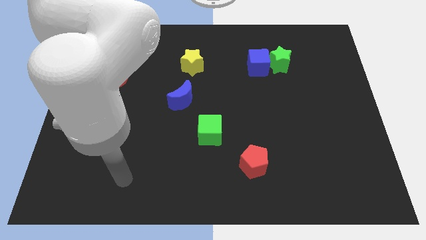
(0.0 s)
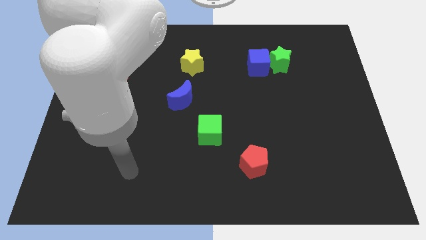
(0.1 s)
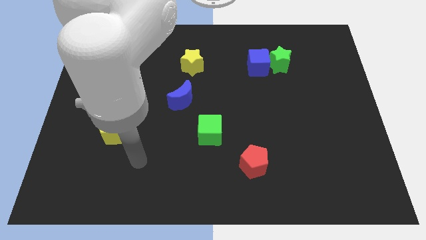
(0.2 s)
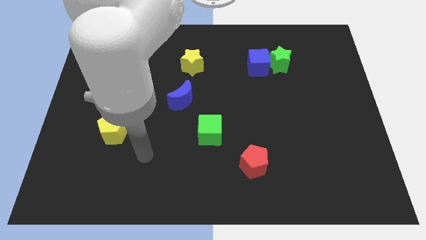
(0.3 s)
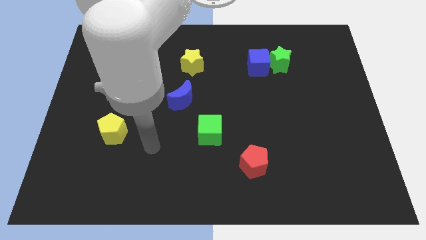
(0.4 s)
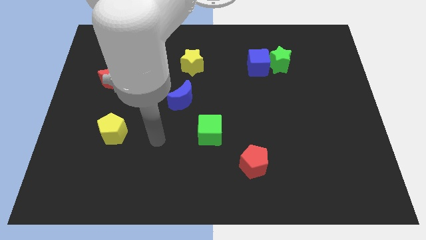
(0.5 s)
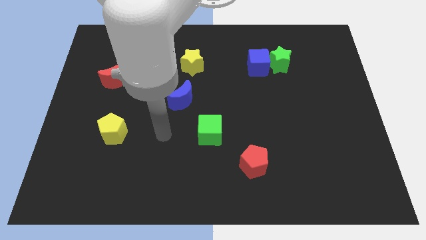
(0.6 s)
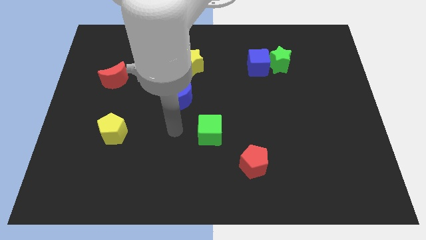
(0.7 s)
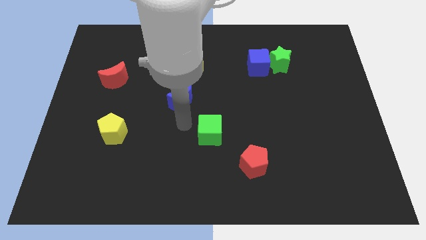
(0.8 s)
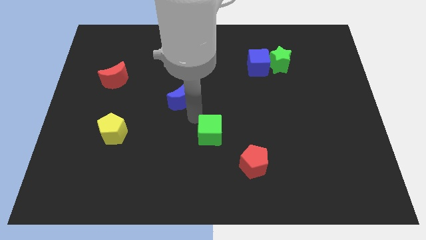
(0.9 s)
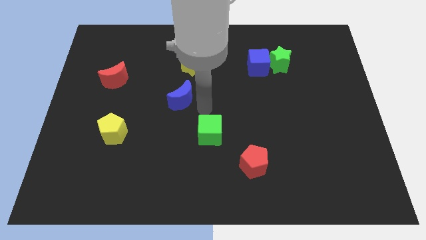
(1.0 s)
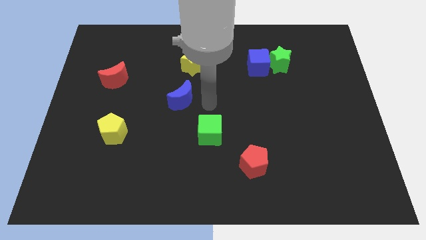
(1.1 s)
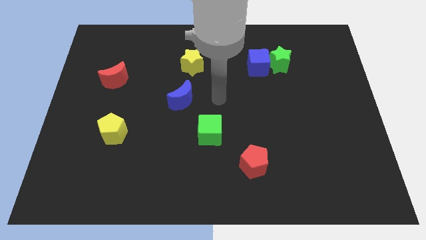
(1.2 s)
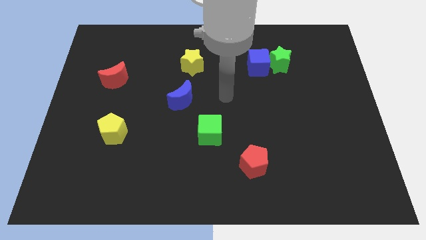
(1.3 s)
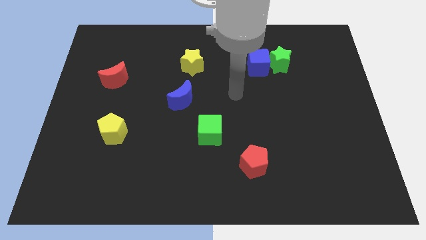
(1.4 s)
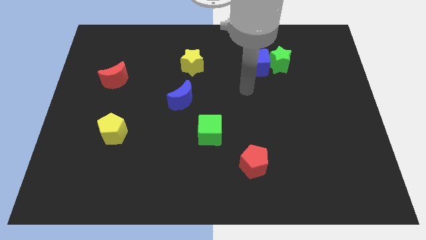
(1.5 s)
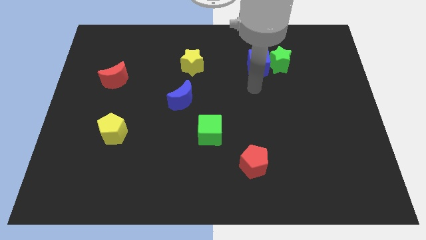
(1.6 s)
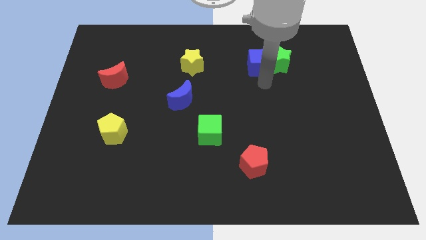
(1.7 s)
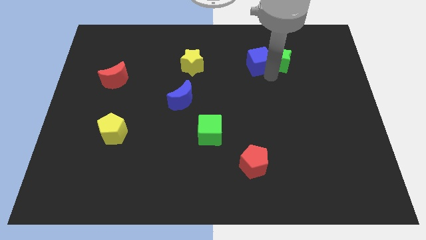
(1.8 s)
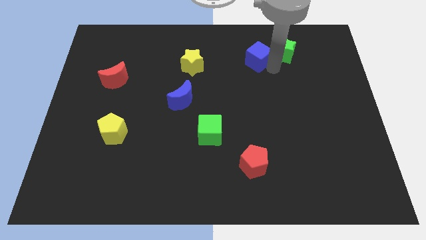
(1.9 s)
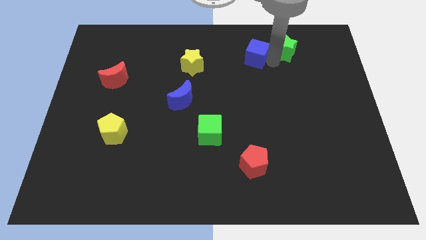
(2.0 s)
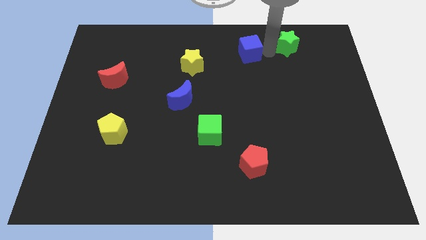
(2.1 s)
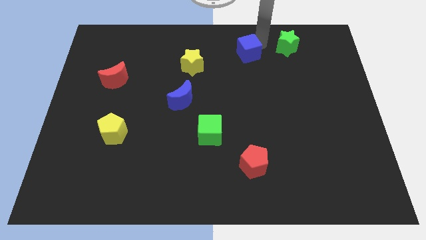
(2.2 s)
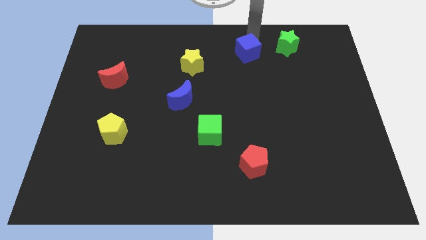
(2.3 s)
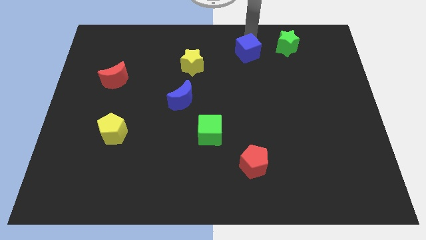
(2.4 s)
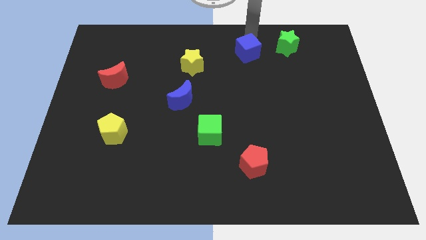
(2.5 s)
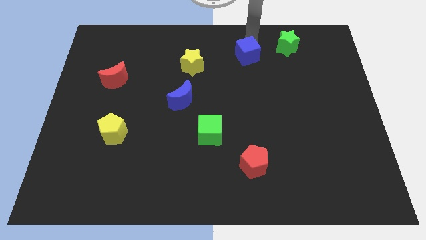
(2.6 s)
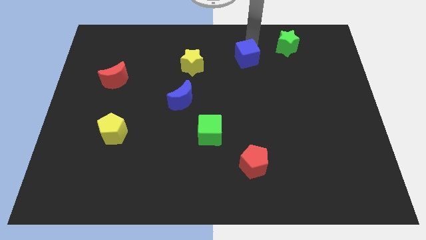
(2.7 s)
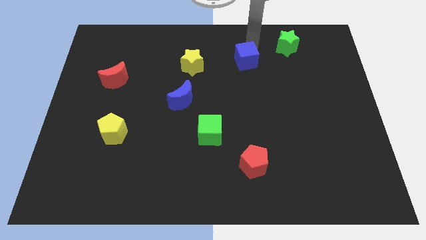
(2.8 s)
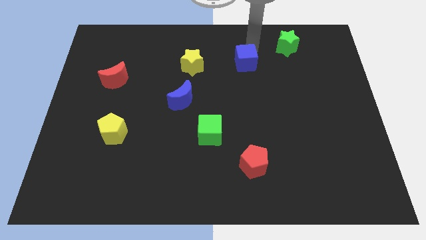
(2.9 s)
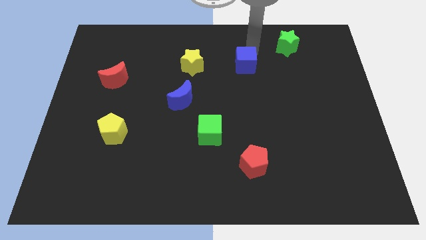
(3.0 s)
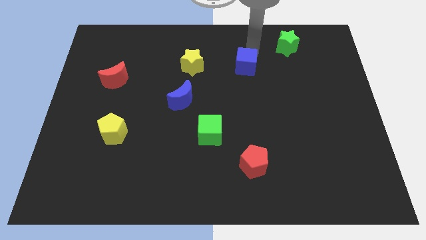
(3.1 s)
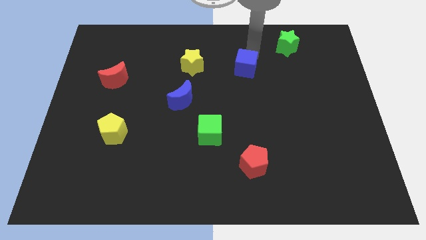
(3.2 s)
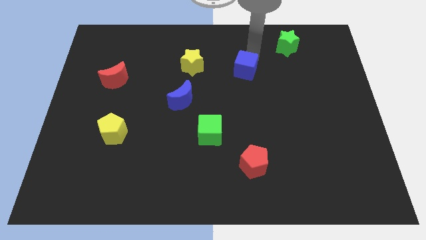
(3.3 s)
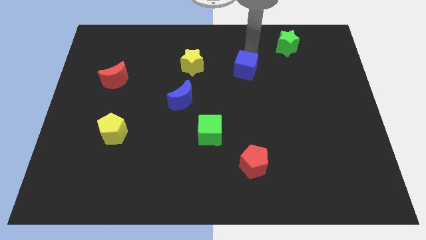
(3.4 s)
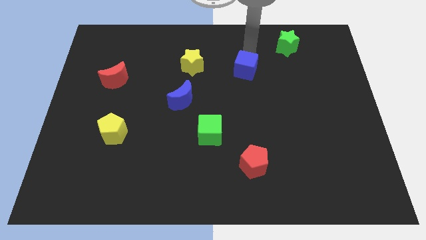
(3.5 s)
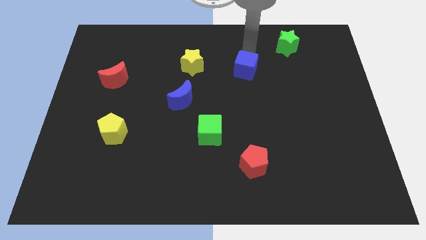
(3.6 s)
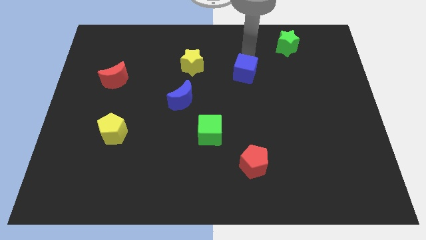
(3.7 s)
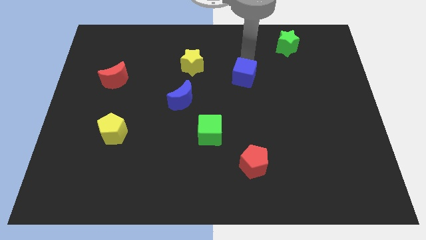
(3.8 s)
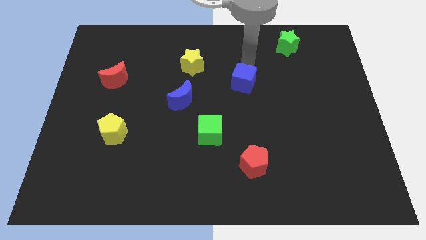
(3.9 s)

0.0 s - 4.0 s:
slightly move the blue cube downwards and left diagonally

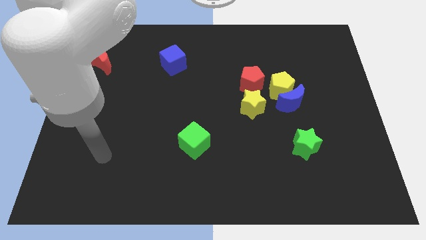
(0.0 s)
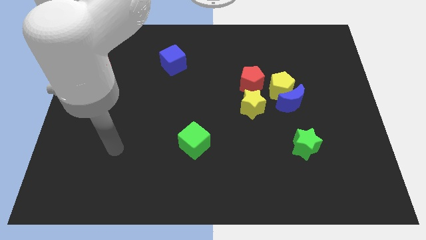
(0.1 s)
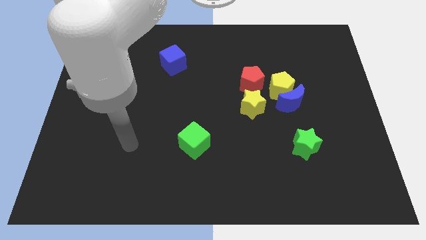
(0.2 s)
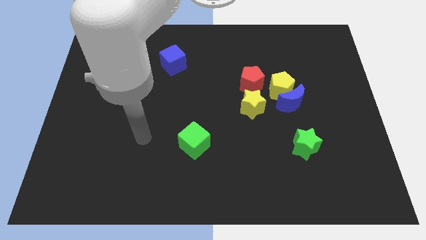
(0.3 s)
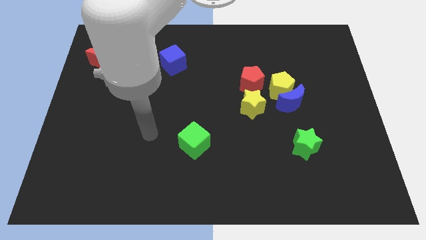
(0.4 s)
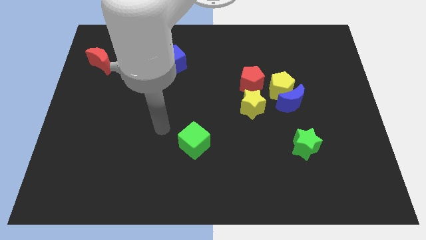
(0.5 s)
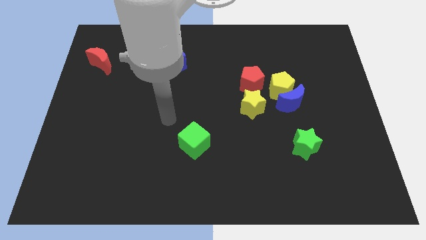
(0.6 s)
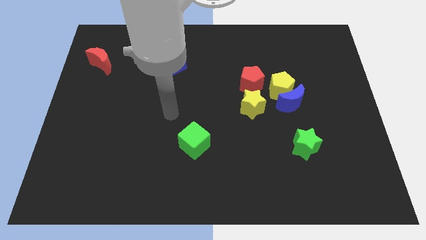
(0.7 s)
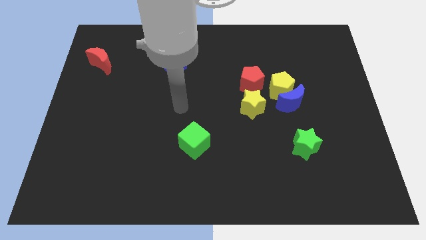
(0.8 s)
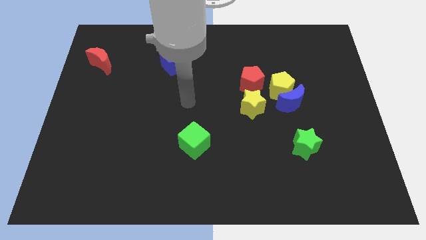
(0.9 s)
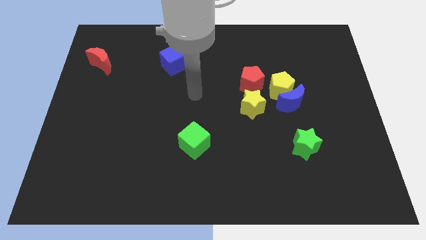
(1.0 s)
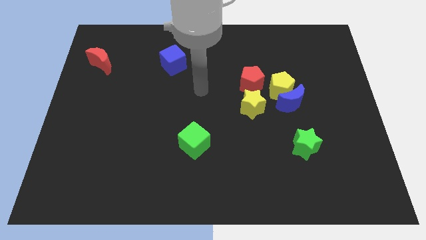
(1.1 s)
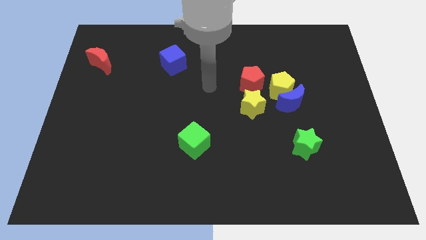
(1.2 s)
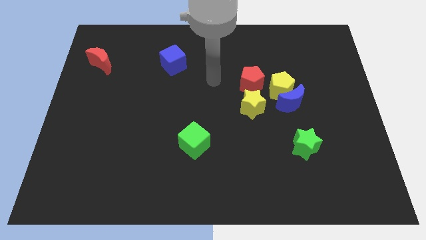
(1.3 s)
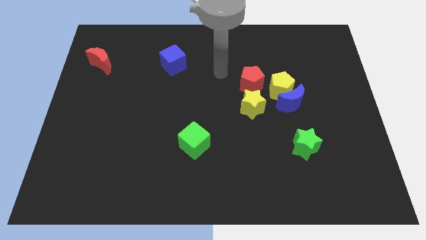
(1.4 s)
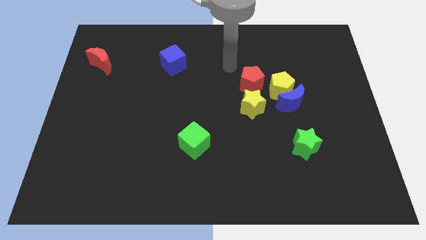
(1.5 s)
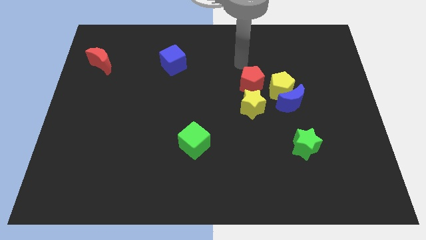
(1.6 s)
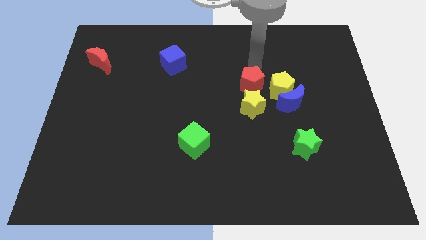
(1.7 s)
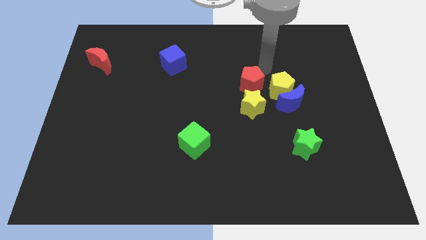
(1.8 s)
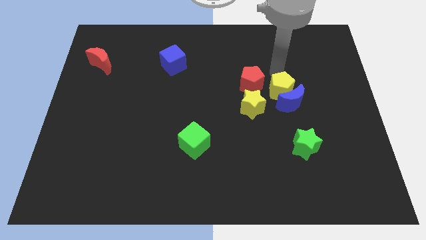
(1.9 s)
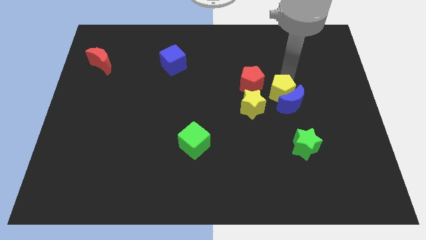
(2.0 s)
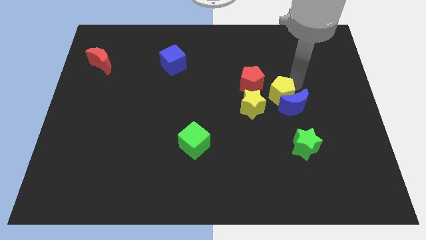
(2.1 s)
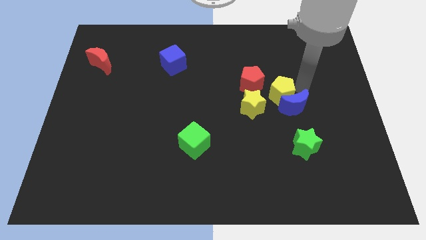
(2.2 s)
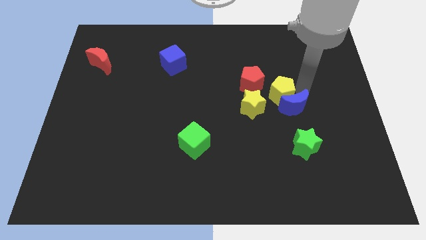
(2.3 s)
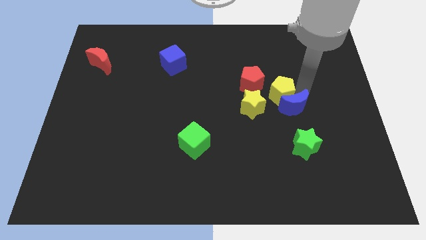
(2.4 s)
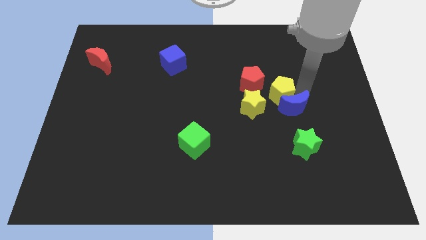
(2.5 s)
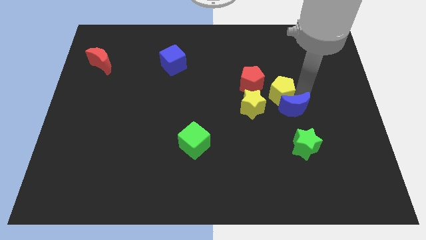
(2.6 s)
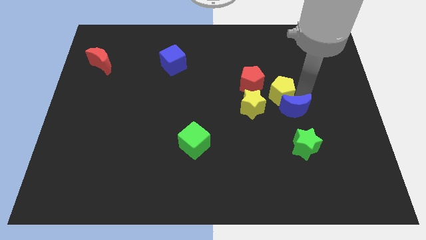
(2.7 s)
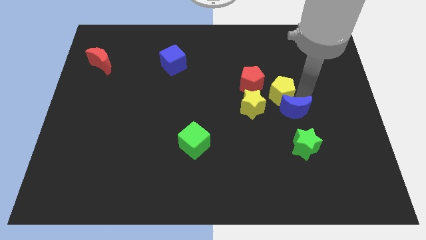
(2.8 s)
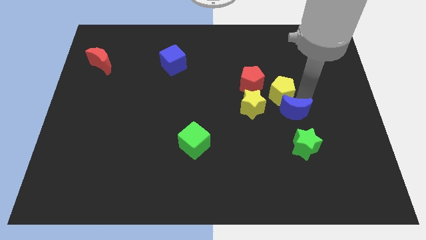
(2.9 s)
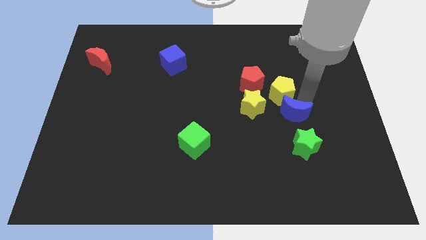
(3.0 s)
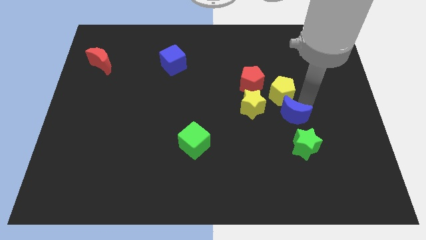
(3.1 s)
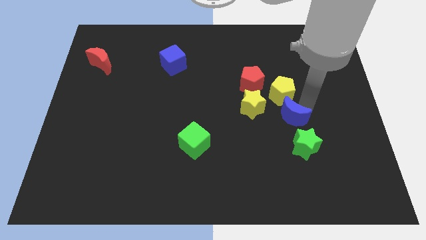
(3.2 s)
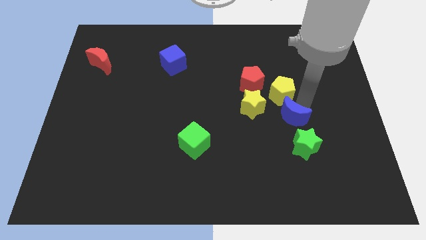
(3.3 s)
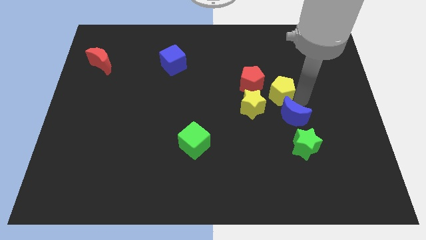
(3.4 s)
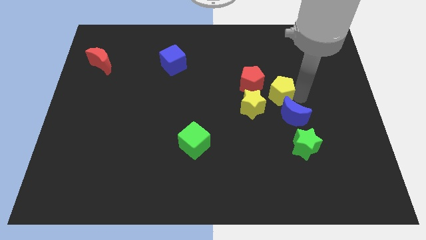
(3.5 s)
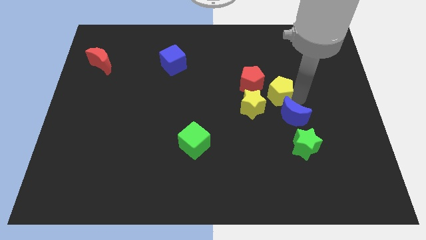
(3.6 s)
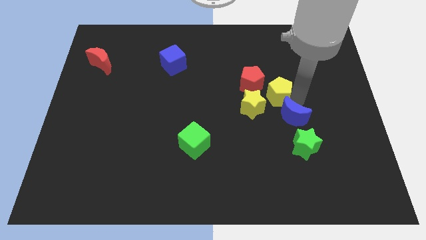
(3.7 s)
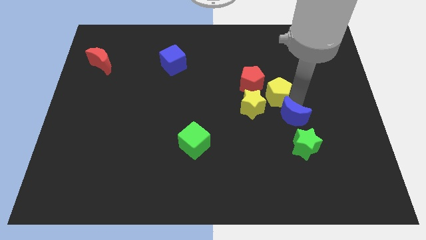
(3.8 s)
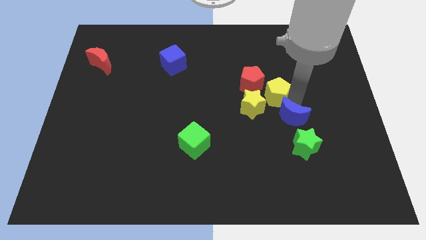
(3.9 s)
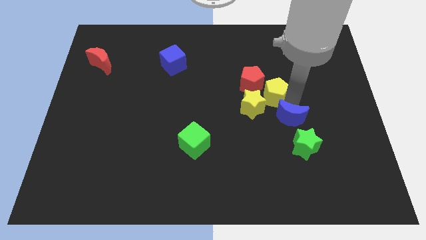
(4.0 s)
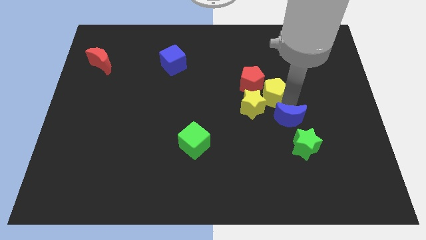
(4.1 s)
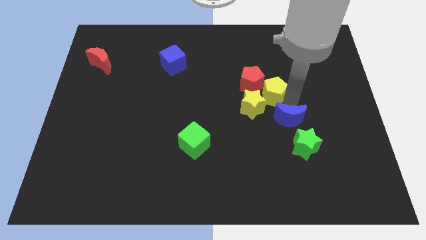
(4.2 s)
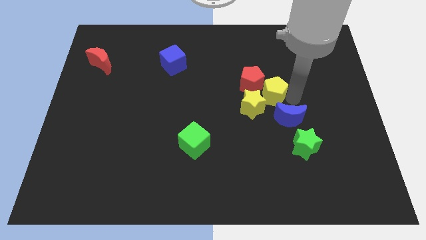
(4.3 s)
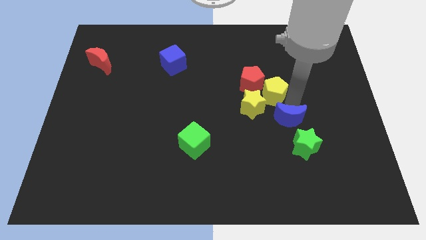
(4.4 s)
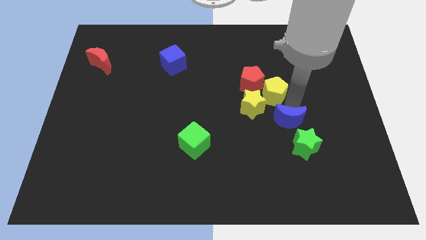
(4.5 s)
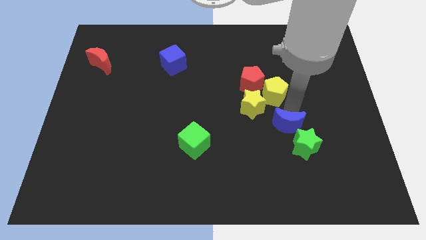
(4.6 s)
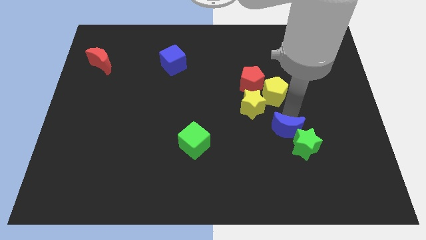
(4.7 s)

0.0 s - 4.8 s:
push the blue moon down a bit
